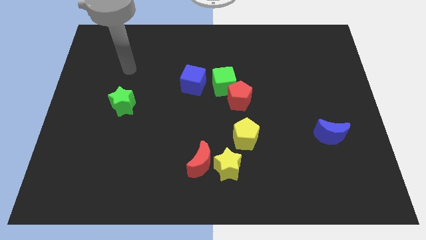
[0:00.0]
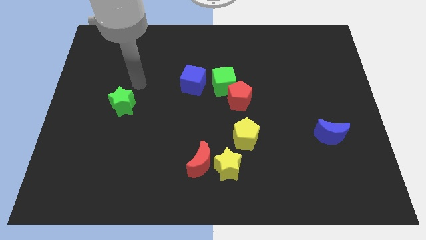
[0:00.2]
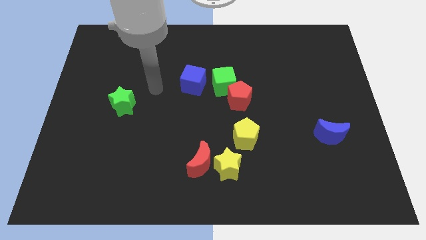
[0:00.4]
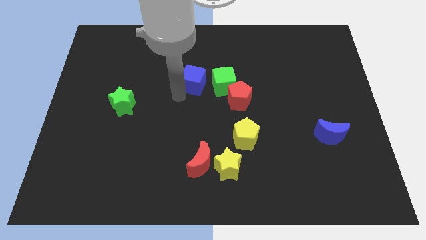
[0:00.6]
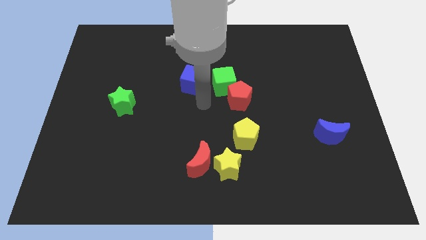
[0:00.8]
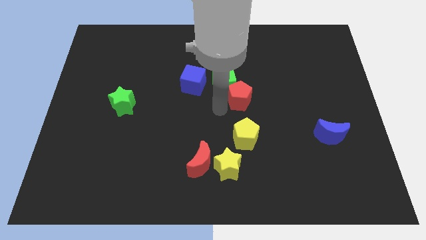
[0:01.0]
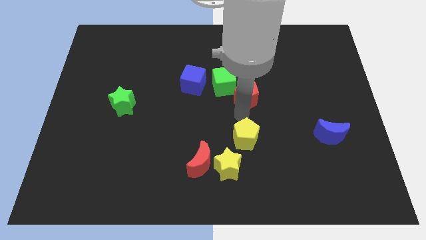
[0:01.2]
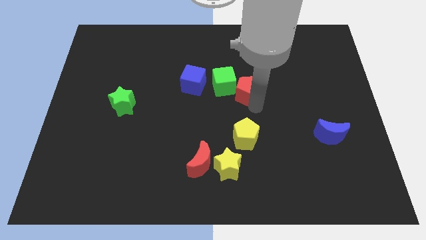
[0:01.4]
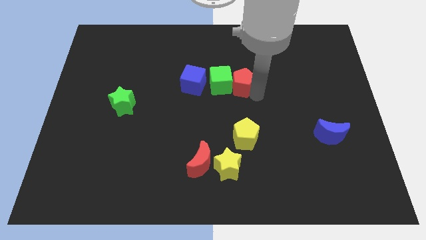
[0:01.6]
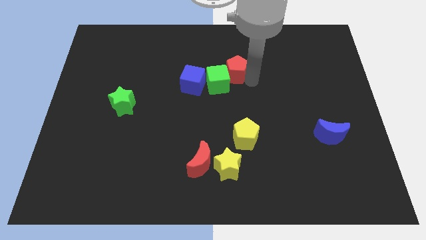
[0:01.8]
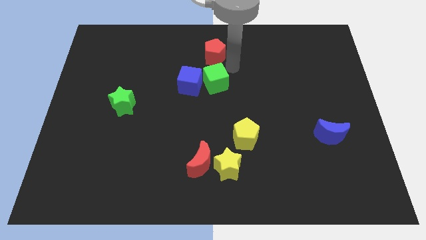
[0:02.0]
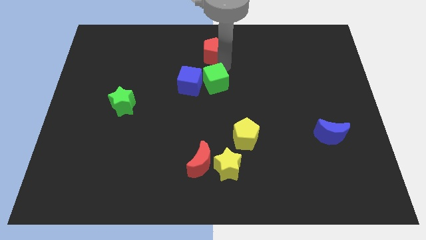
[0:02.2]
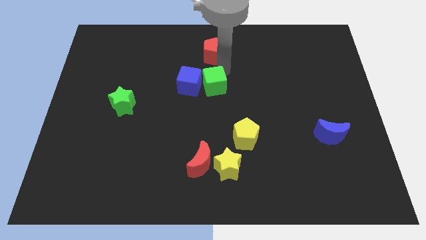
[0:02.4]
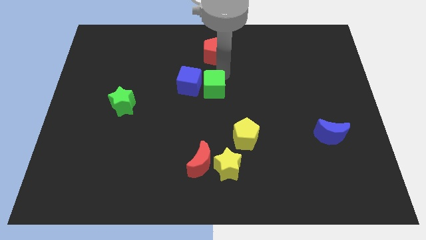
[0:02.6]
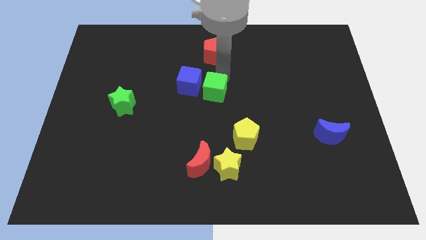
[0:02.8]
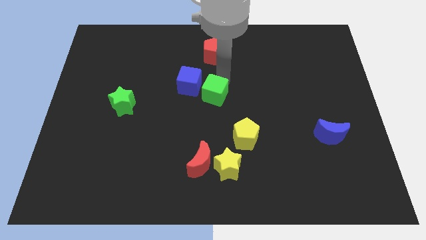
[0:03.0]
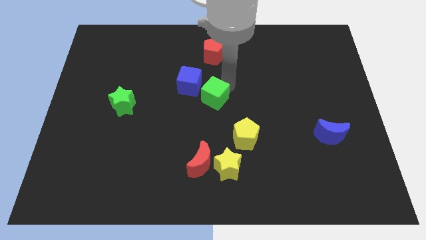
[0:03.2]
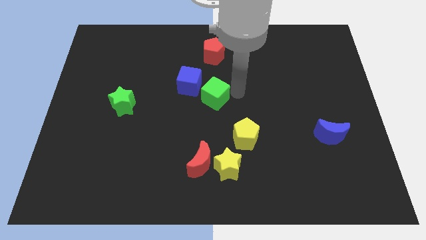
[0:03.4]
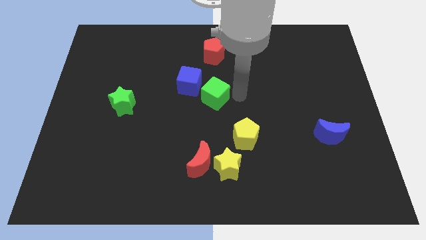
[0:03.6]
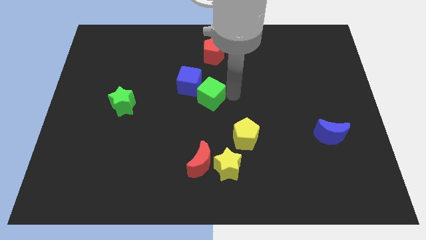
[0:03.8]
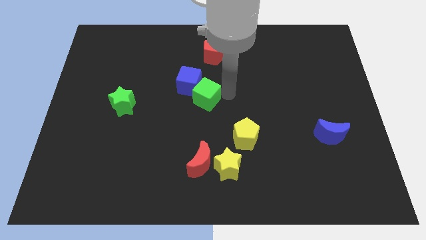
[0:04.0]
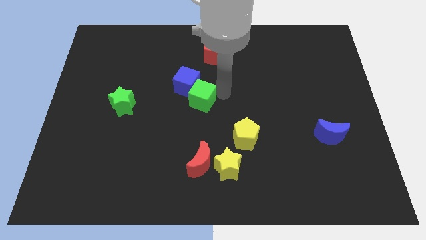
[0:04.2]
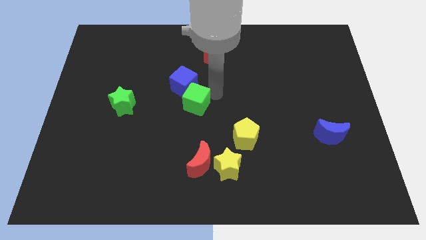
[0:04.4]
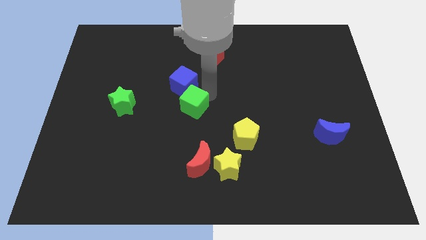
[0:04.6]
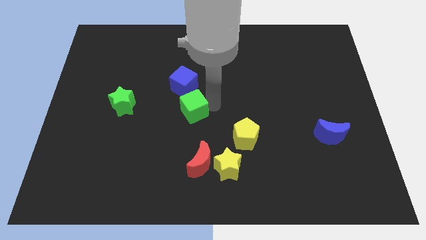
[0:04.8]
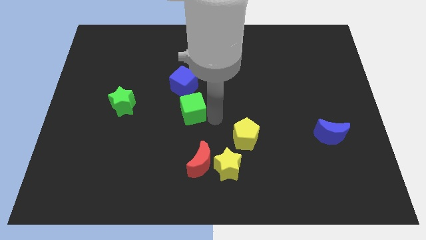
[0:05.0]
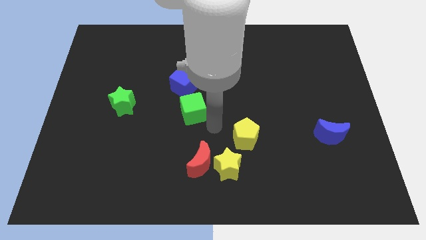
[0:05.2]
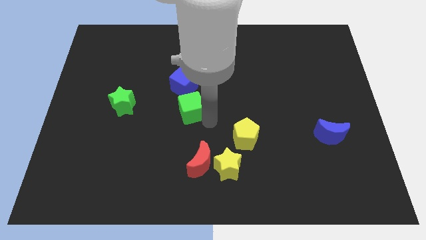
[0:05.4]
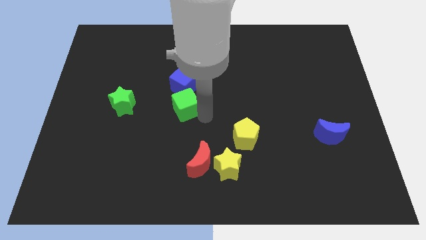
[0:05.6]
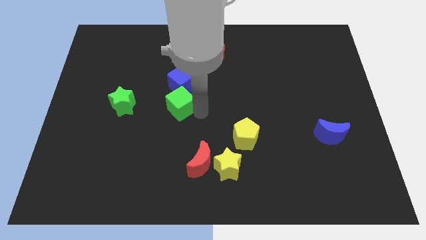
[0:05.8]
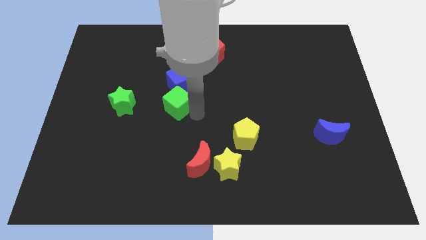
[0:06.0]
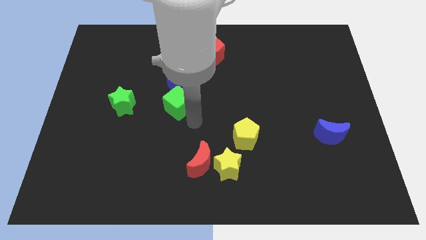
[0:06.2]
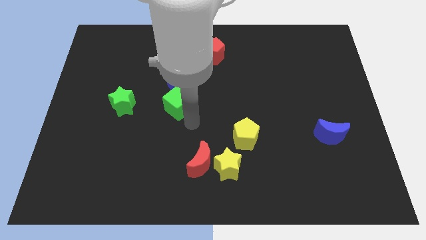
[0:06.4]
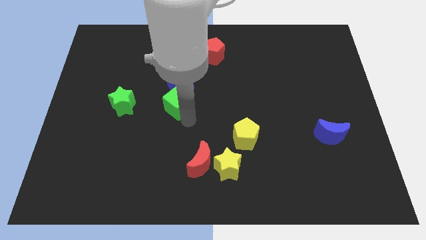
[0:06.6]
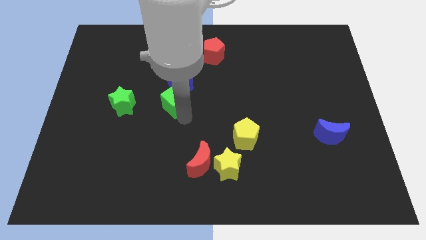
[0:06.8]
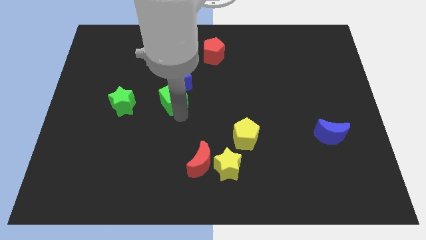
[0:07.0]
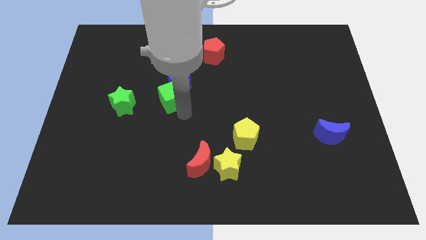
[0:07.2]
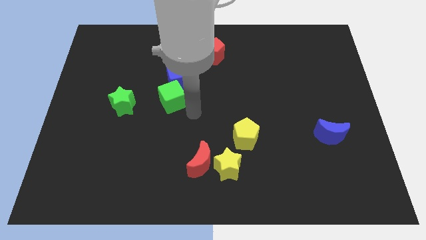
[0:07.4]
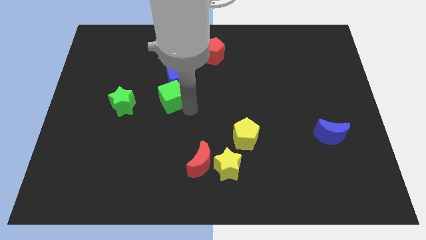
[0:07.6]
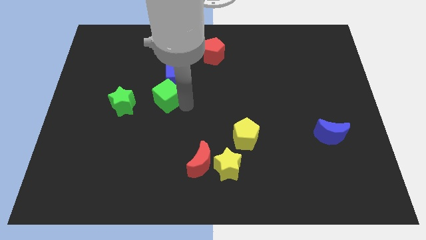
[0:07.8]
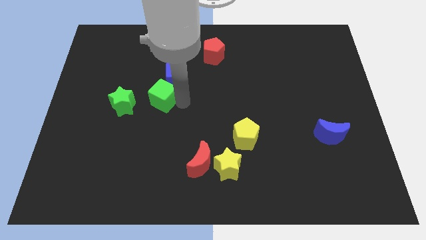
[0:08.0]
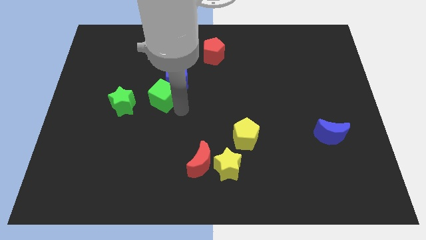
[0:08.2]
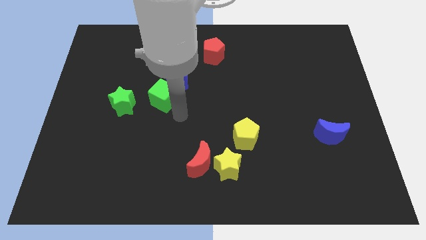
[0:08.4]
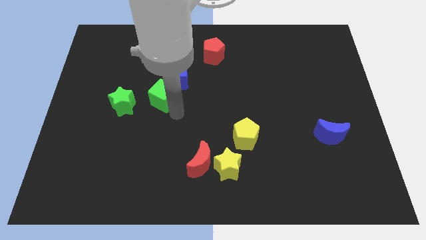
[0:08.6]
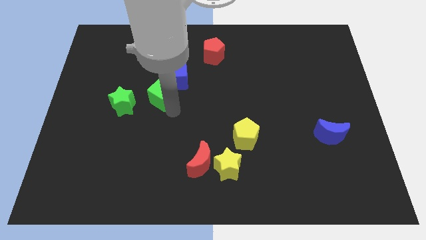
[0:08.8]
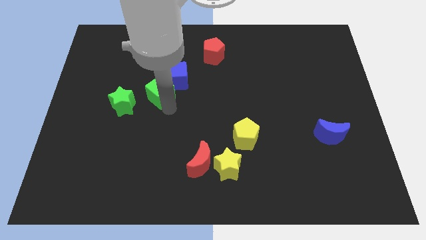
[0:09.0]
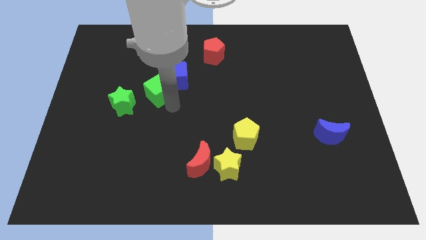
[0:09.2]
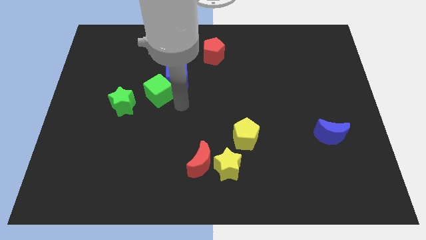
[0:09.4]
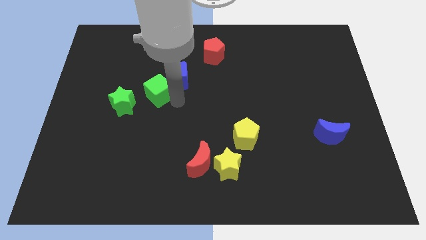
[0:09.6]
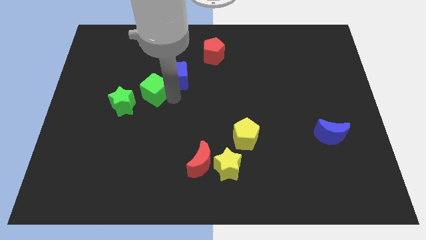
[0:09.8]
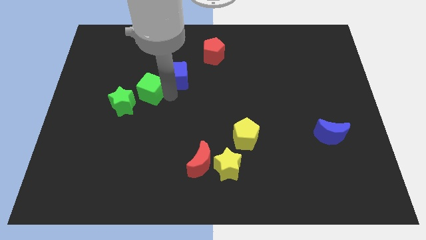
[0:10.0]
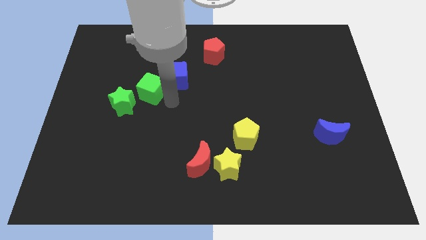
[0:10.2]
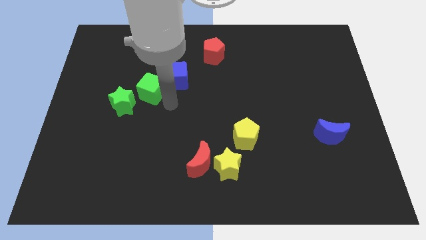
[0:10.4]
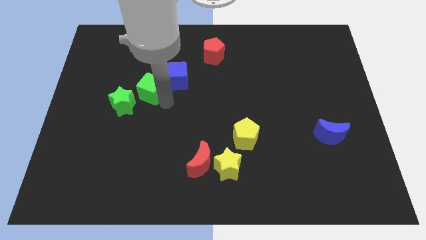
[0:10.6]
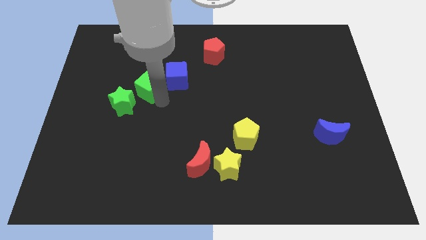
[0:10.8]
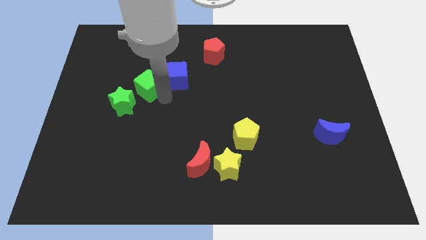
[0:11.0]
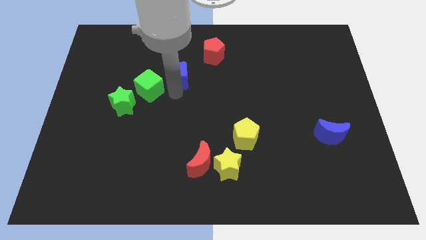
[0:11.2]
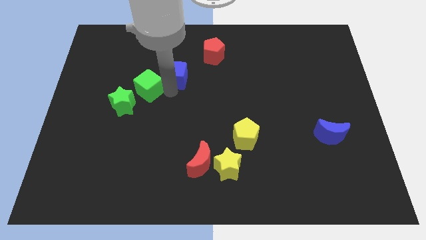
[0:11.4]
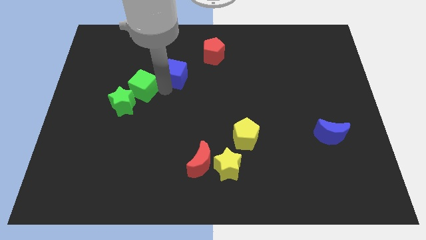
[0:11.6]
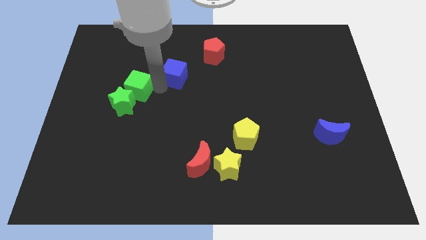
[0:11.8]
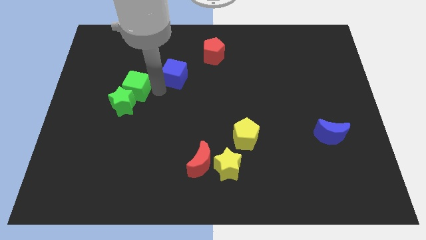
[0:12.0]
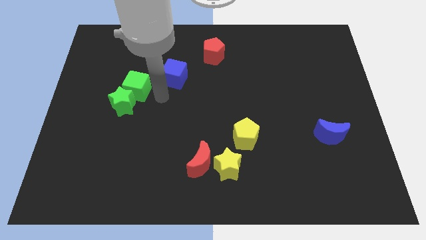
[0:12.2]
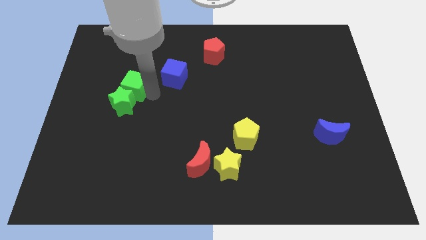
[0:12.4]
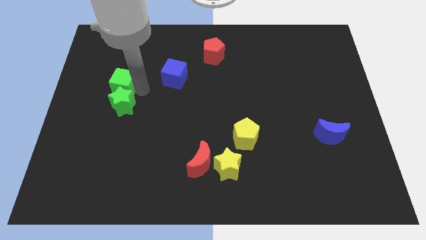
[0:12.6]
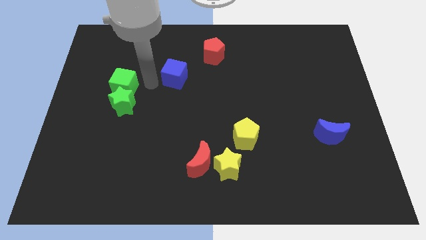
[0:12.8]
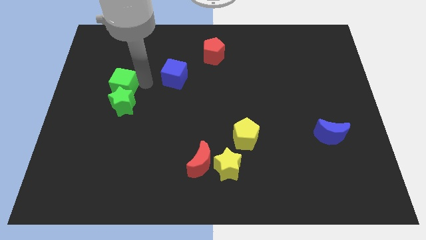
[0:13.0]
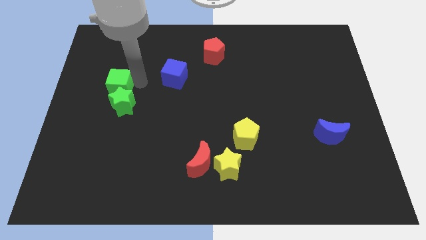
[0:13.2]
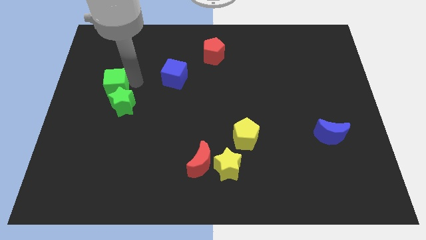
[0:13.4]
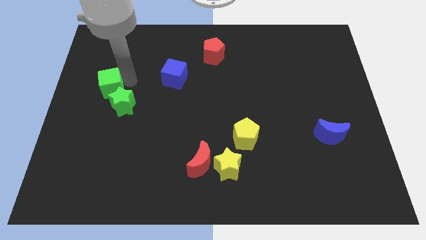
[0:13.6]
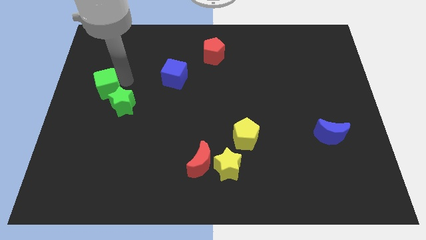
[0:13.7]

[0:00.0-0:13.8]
put the green cube to the center left
